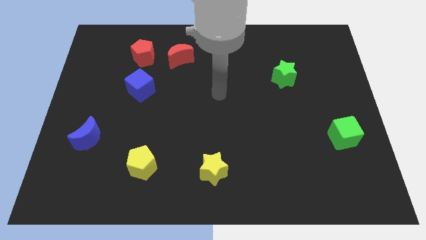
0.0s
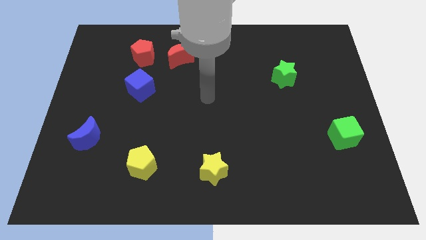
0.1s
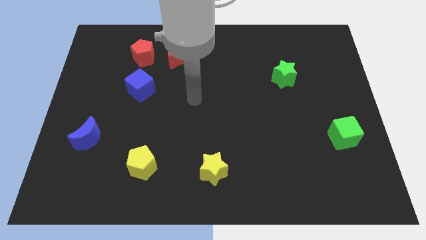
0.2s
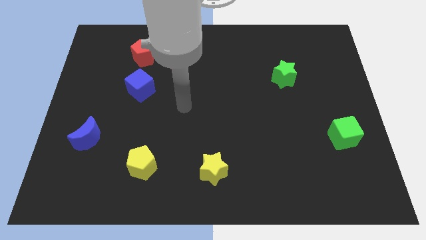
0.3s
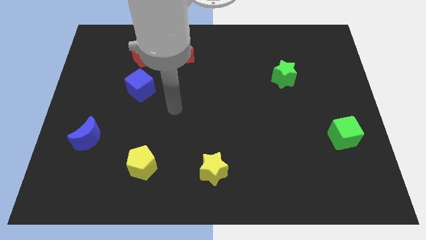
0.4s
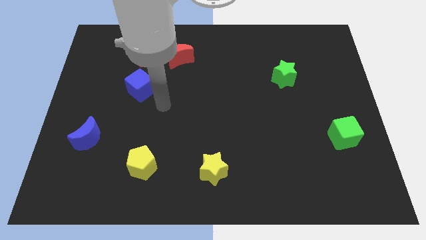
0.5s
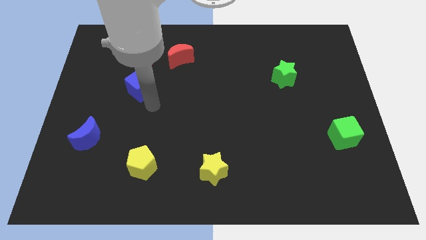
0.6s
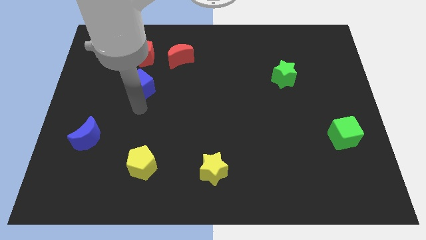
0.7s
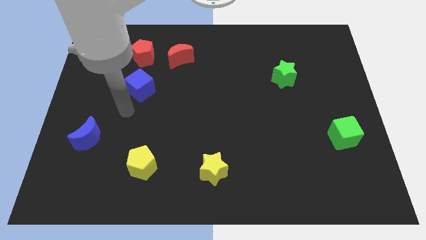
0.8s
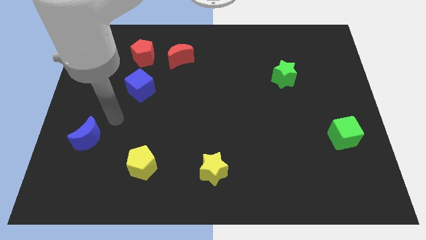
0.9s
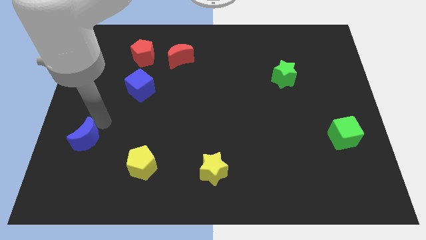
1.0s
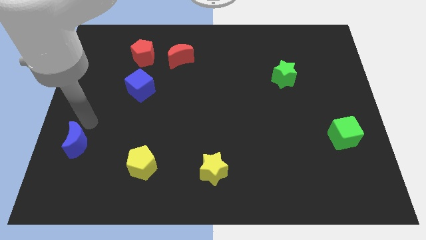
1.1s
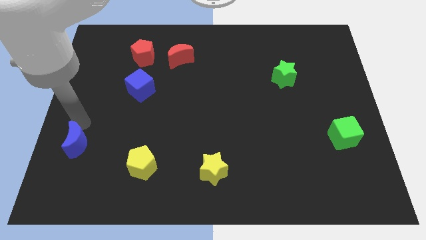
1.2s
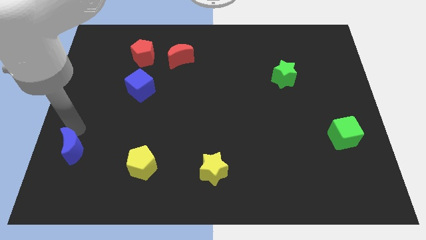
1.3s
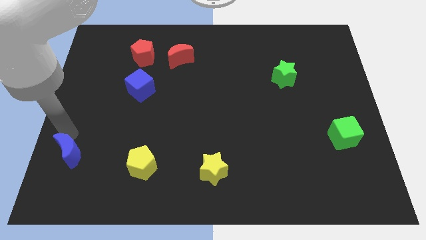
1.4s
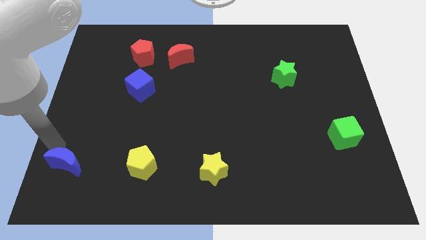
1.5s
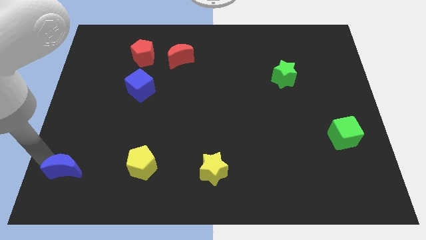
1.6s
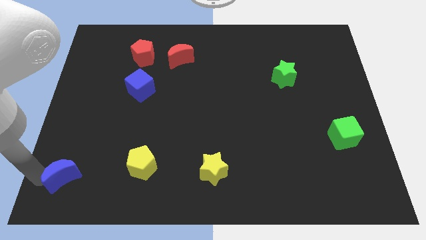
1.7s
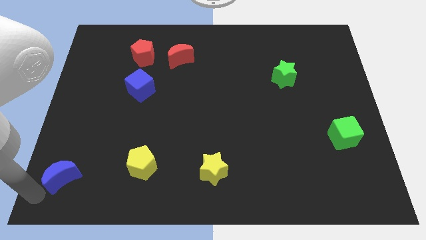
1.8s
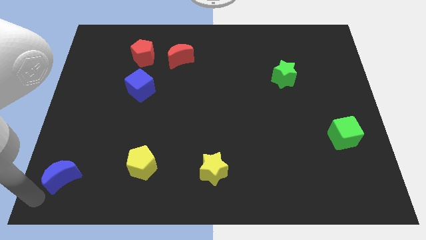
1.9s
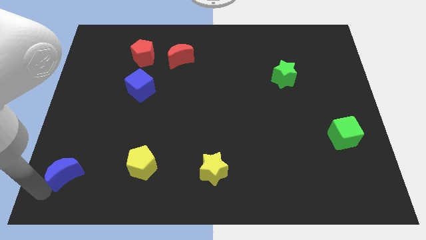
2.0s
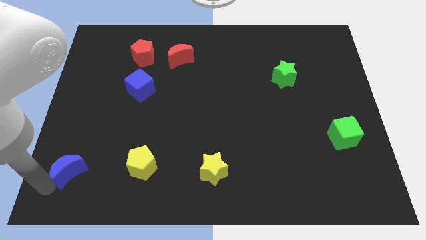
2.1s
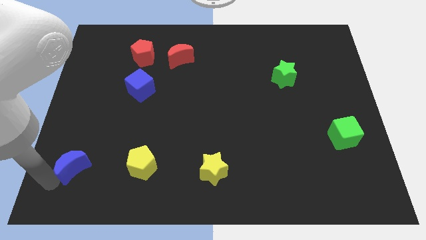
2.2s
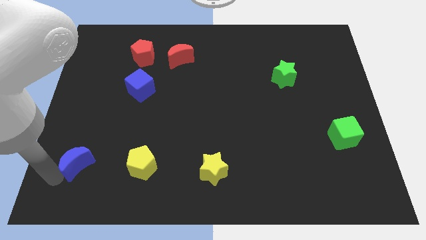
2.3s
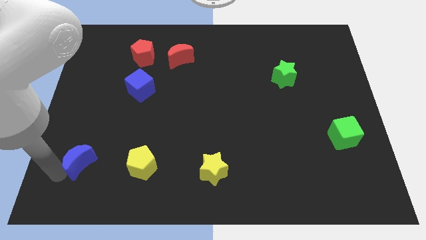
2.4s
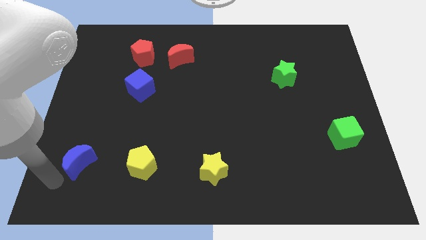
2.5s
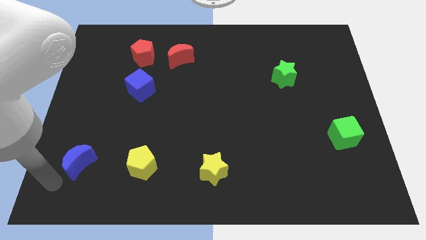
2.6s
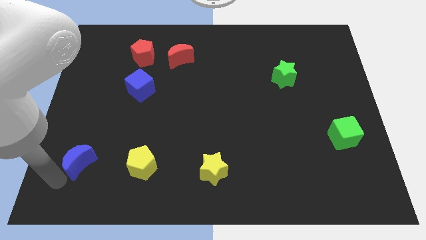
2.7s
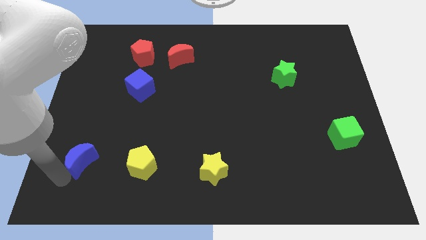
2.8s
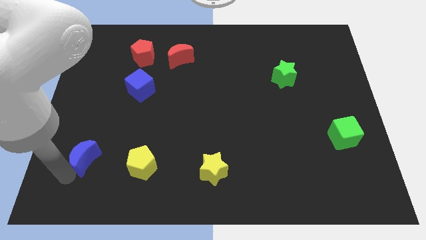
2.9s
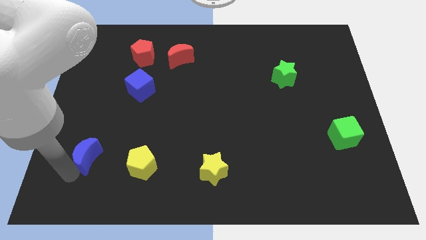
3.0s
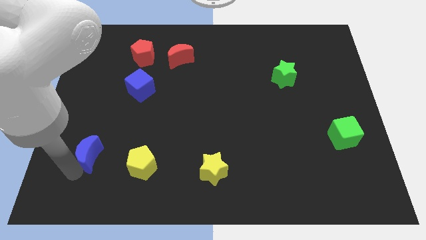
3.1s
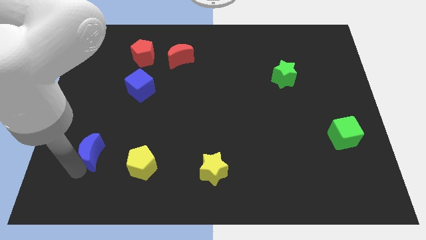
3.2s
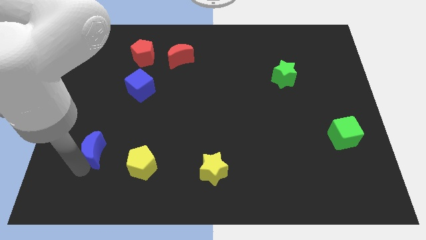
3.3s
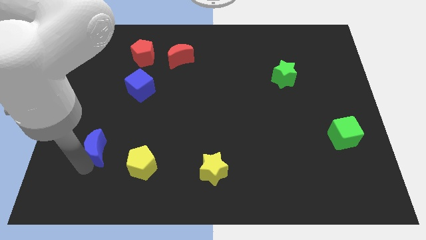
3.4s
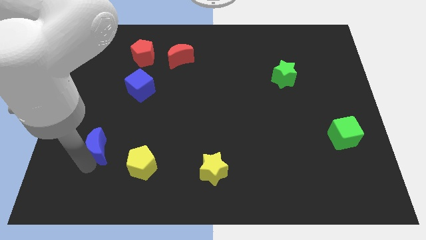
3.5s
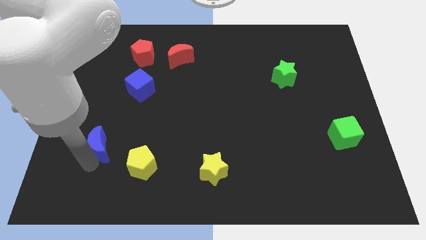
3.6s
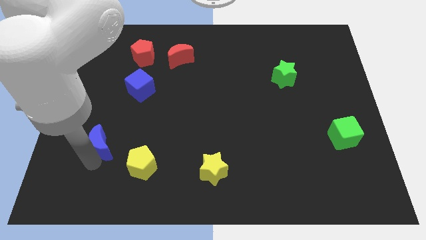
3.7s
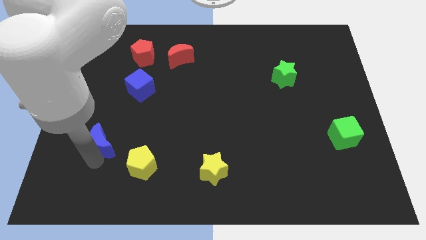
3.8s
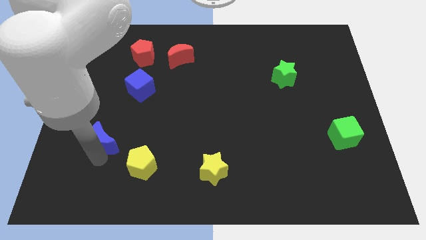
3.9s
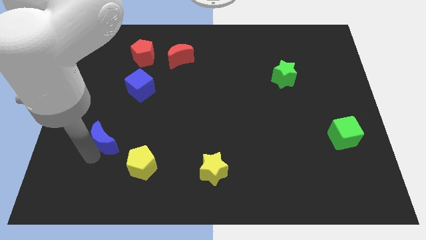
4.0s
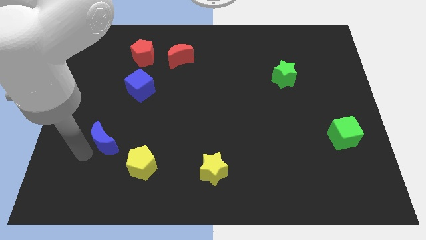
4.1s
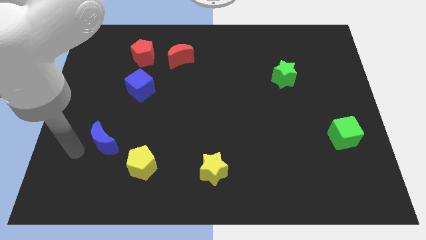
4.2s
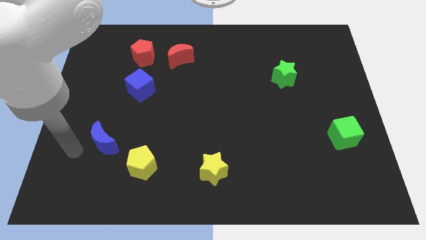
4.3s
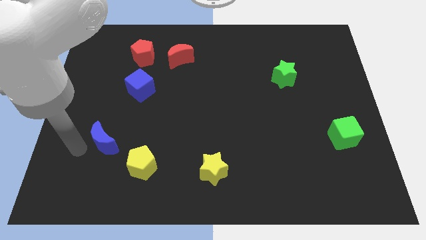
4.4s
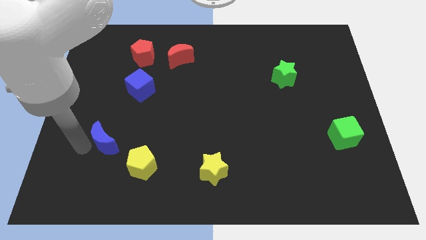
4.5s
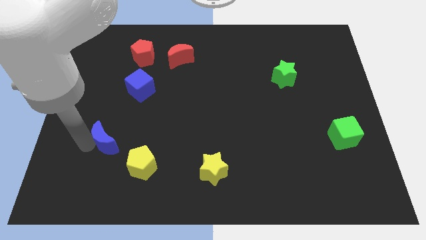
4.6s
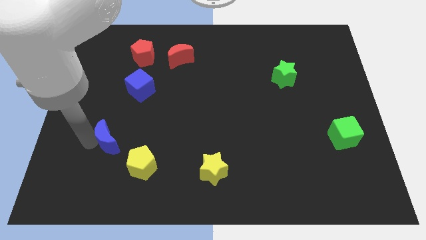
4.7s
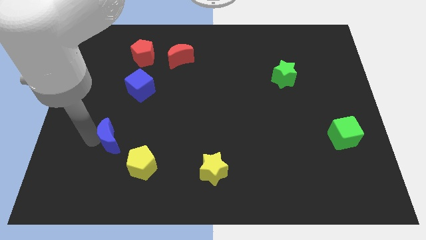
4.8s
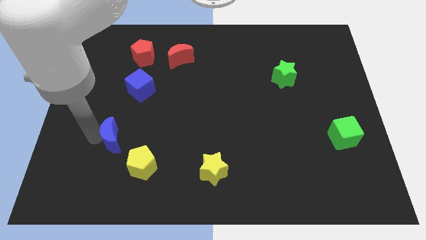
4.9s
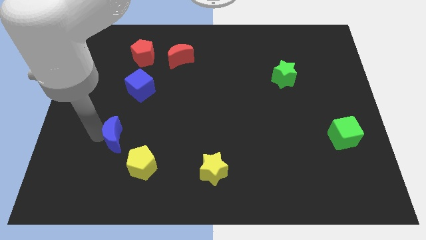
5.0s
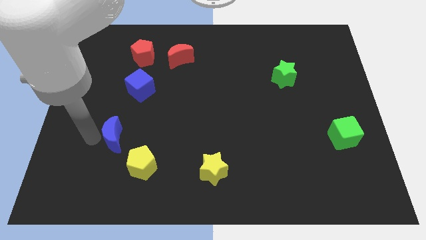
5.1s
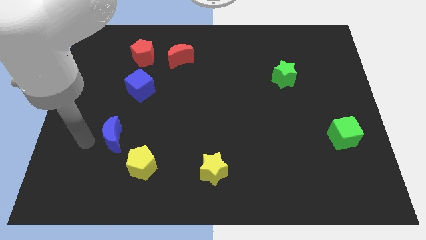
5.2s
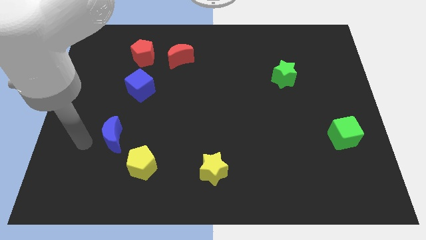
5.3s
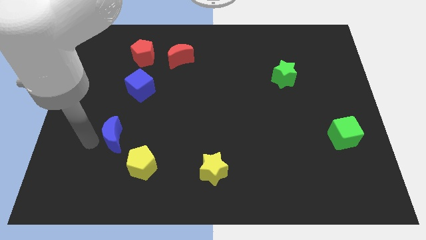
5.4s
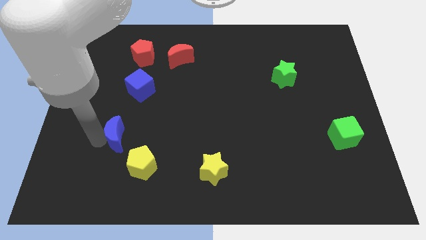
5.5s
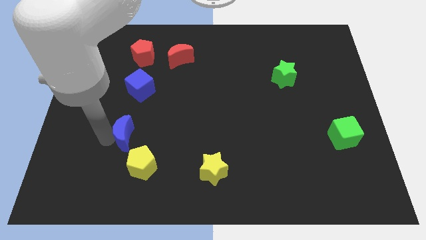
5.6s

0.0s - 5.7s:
slide the blue moon a little bit right

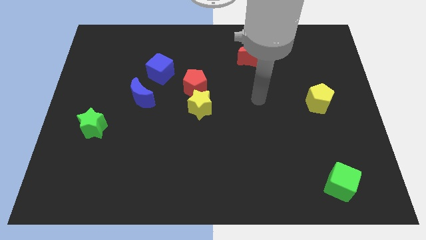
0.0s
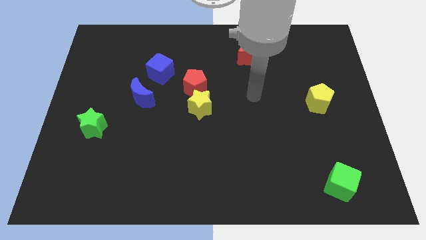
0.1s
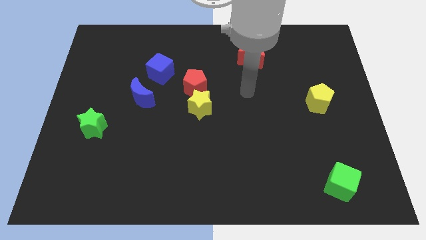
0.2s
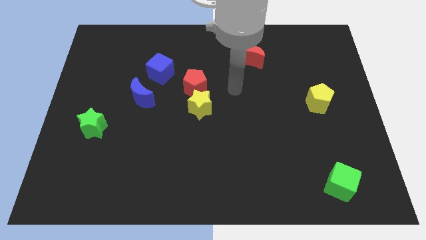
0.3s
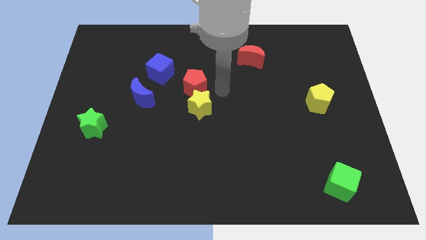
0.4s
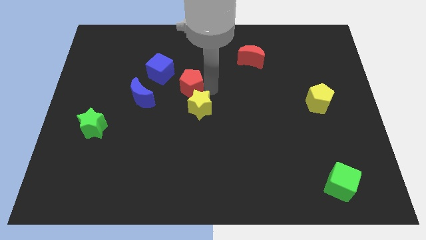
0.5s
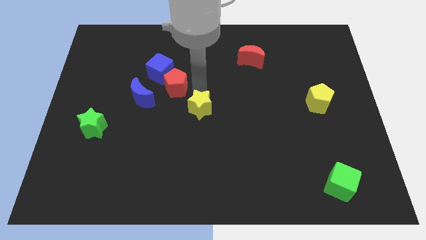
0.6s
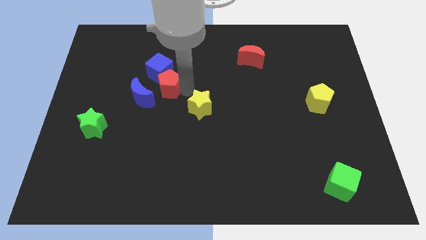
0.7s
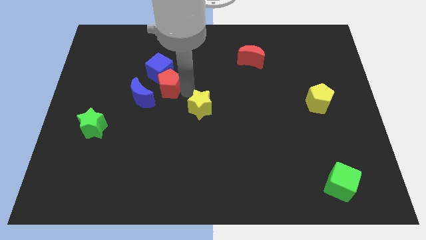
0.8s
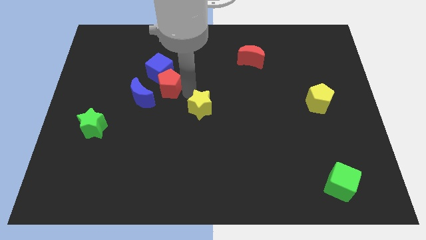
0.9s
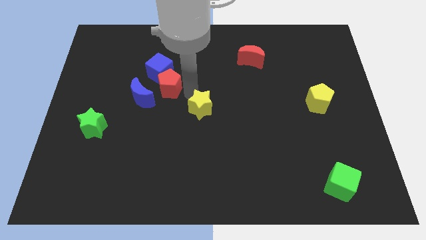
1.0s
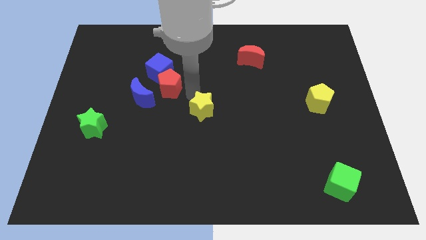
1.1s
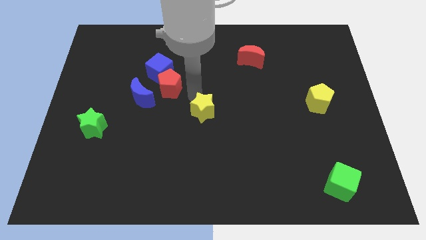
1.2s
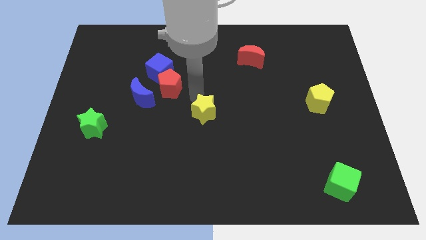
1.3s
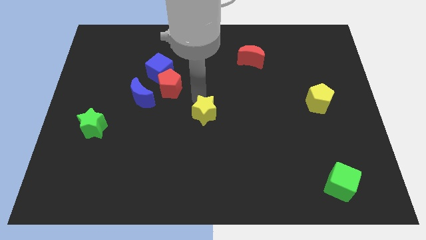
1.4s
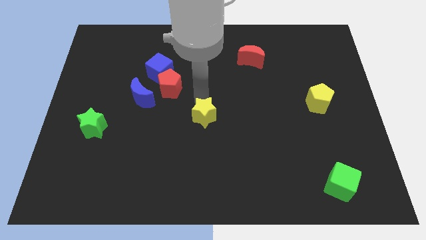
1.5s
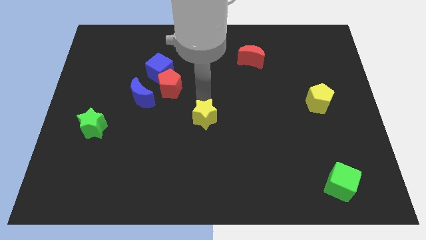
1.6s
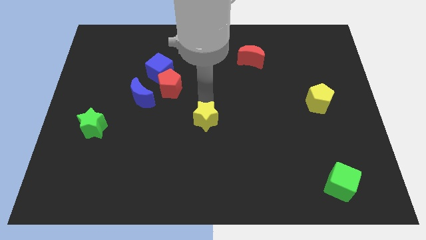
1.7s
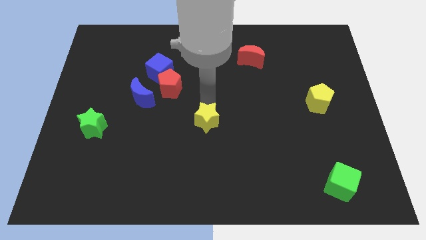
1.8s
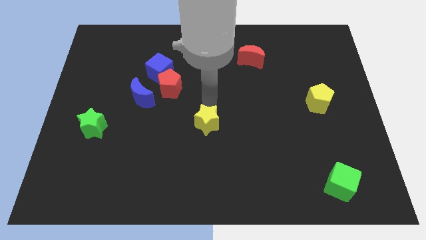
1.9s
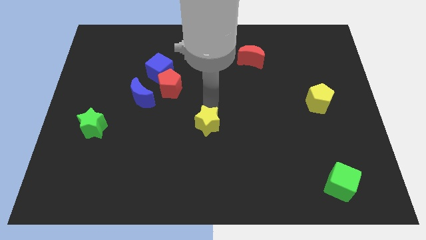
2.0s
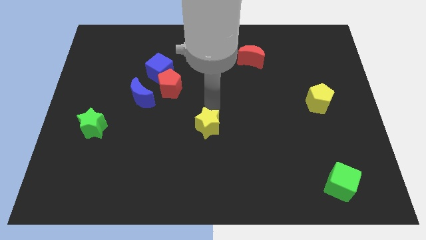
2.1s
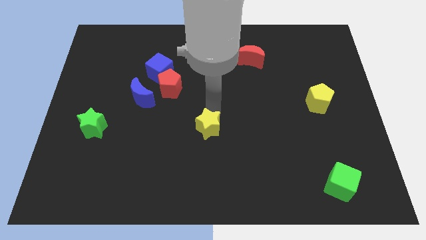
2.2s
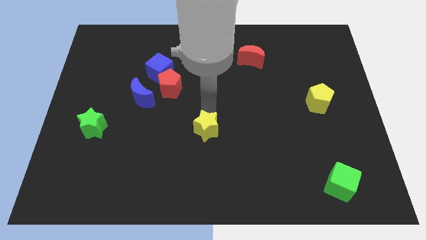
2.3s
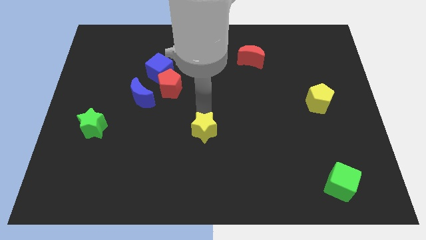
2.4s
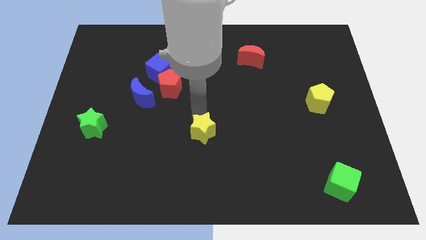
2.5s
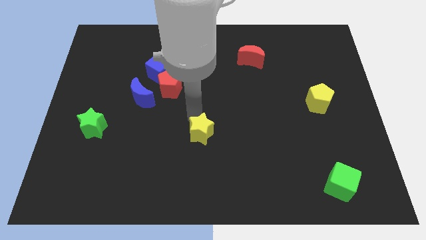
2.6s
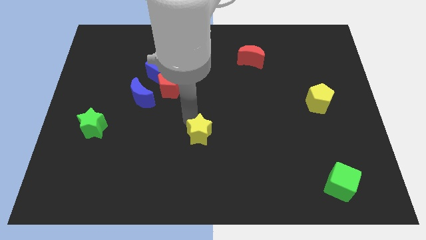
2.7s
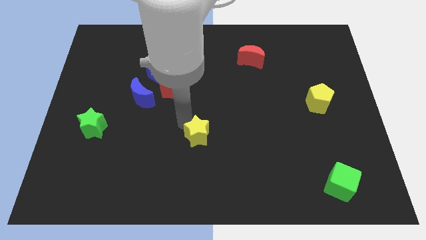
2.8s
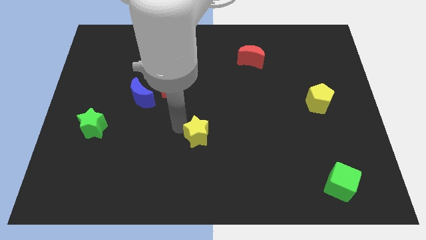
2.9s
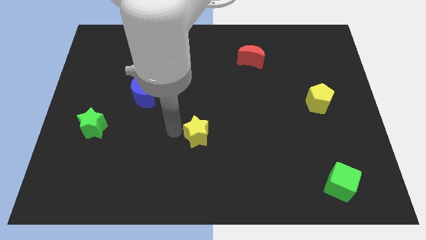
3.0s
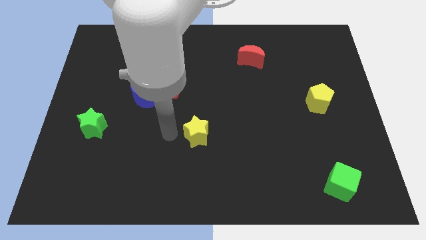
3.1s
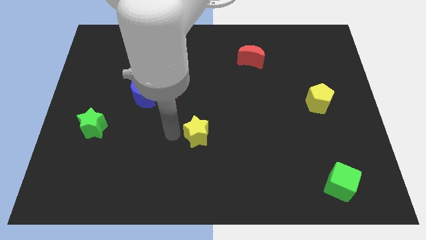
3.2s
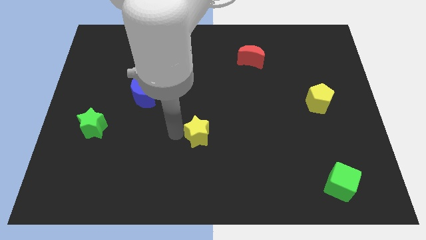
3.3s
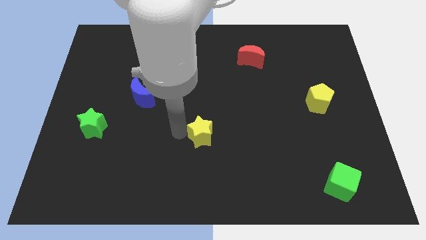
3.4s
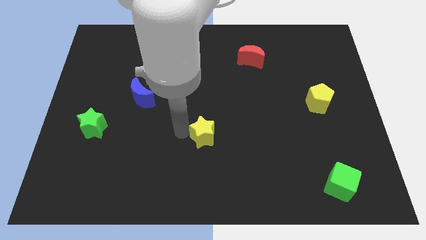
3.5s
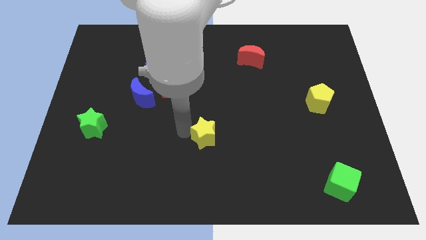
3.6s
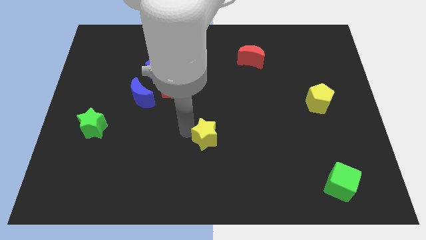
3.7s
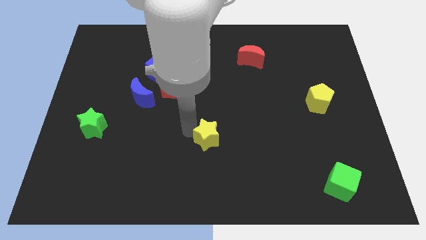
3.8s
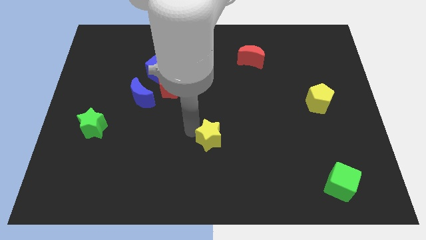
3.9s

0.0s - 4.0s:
slightly move the yellow star downwards and then right
